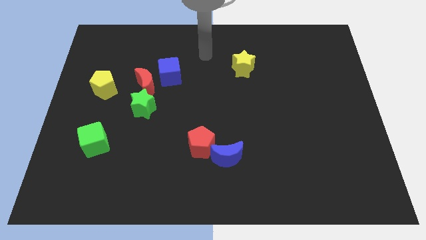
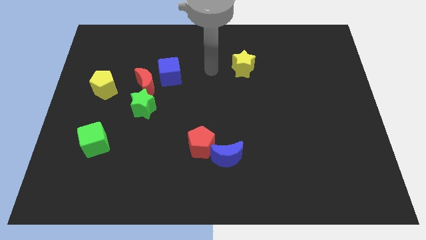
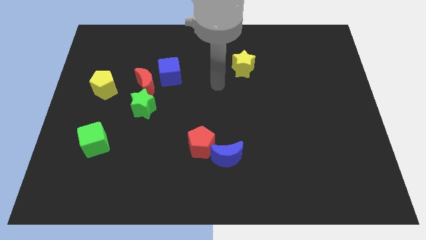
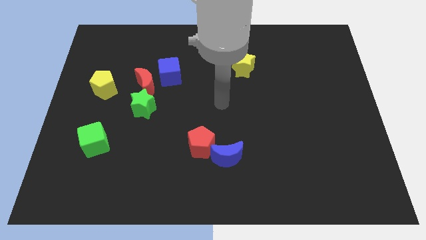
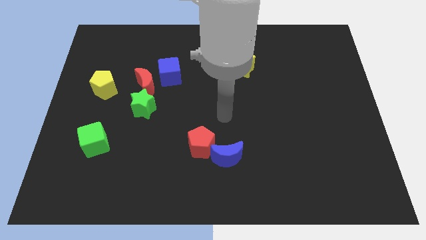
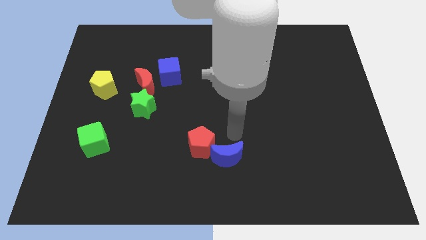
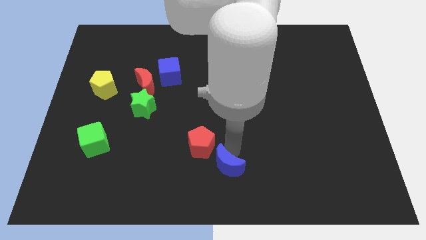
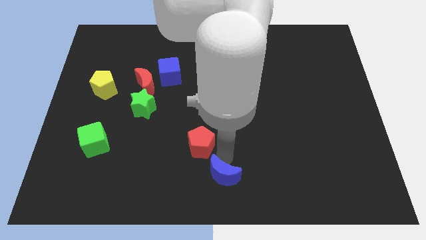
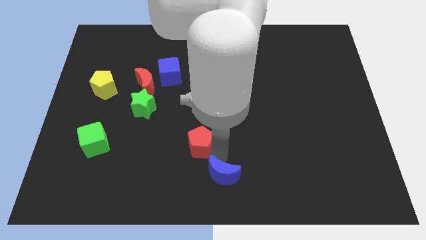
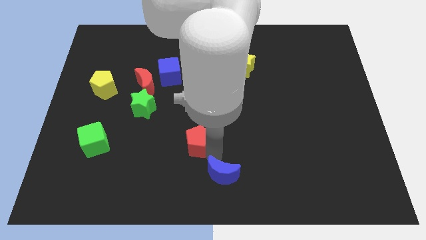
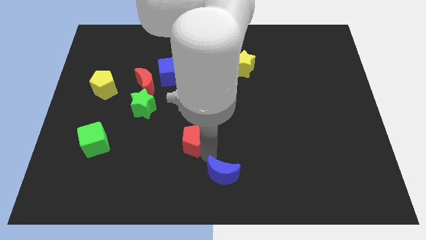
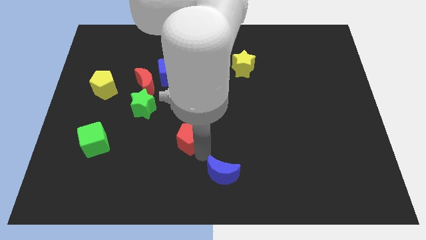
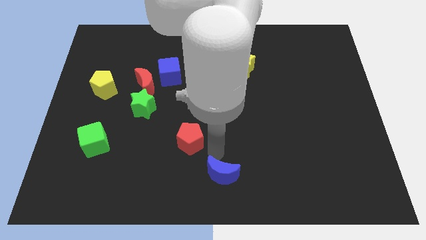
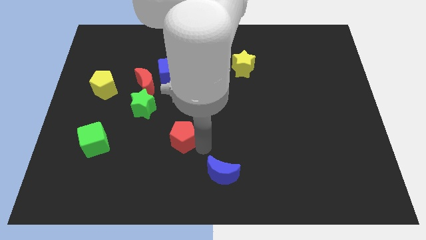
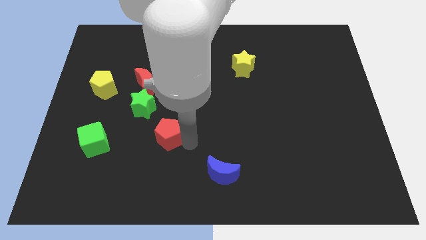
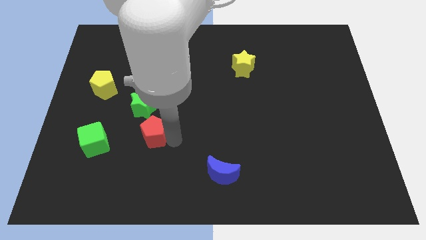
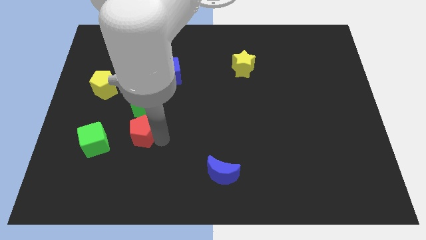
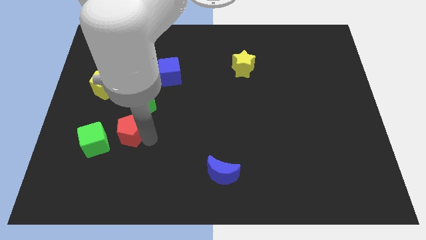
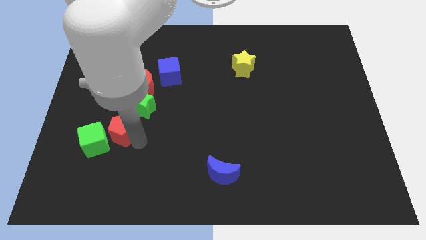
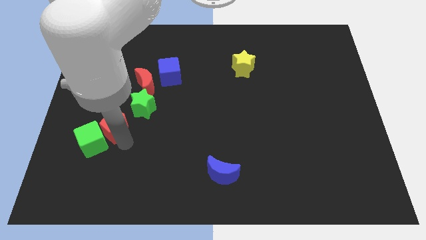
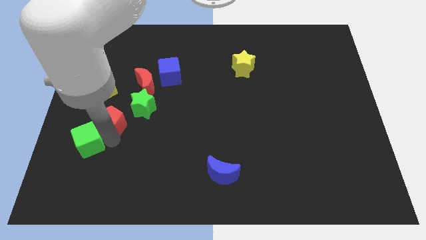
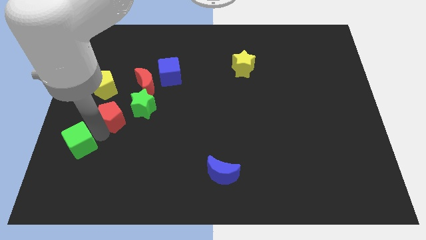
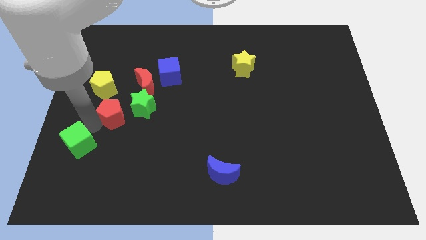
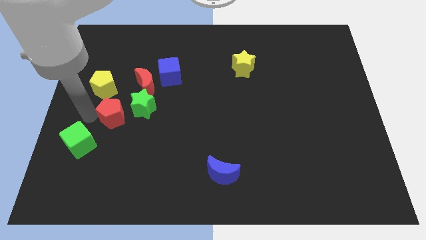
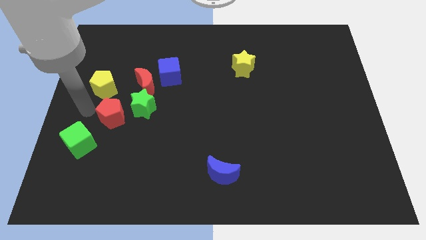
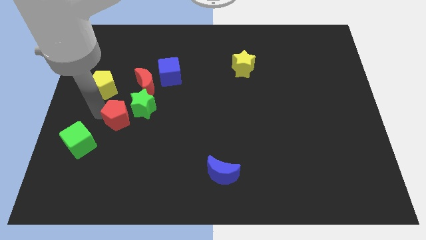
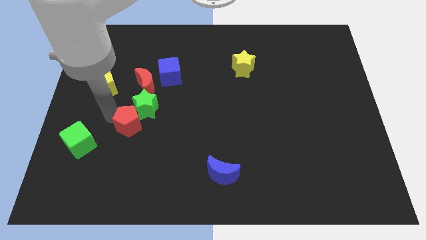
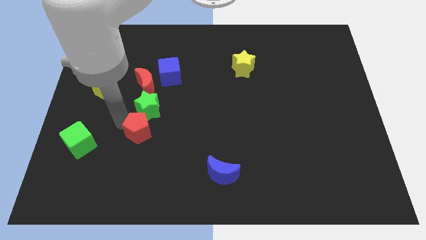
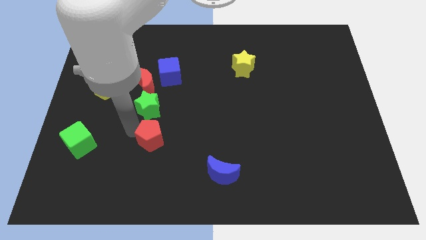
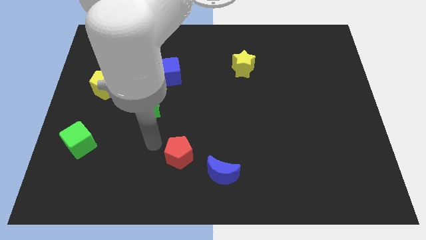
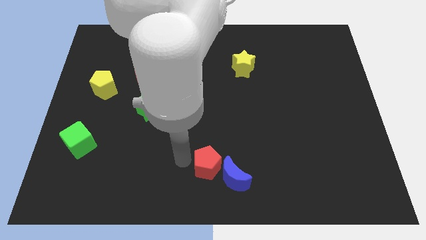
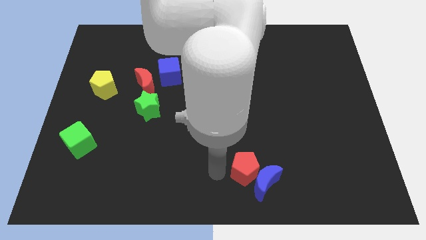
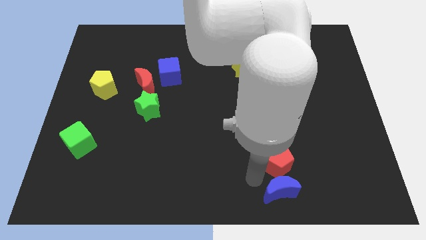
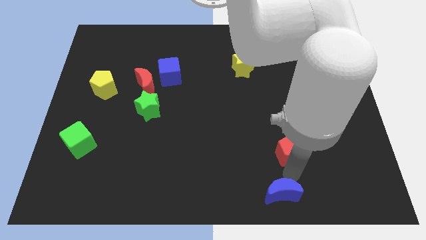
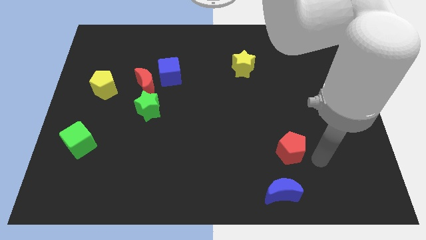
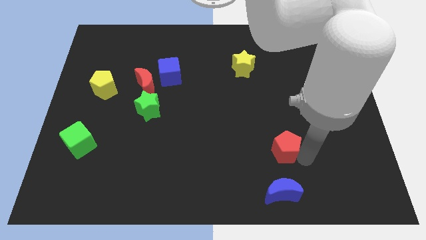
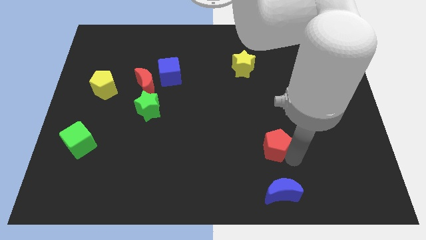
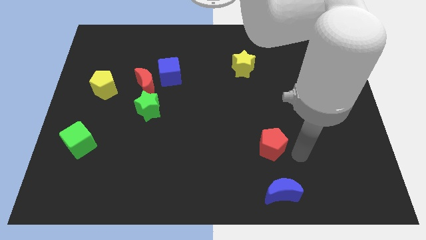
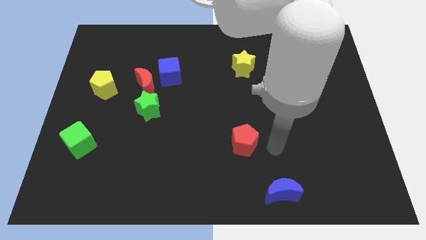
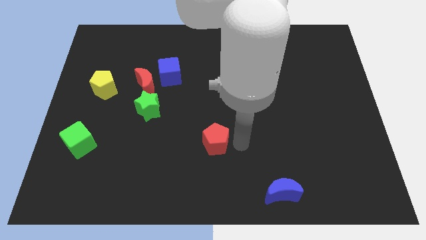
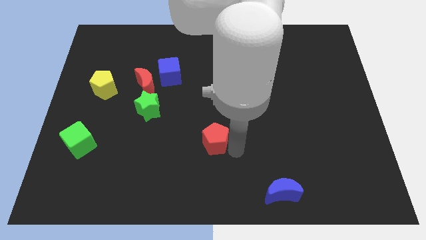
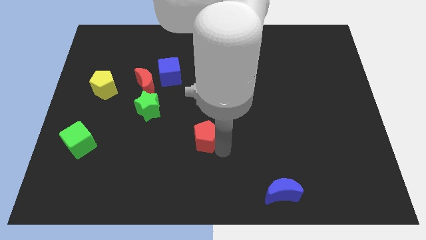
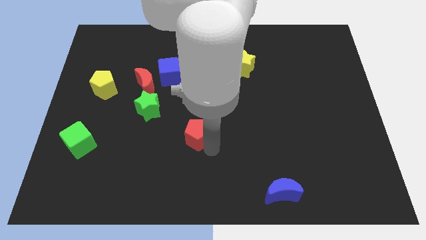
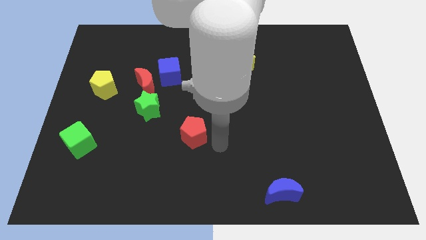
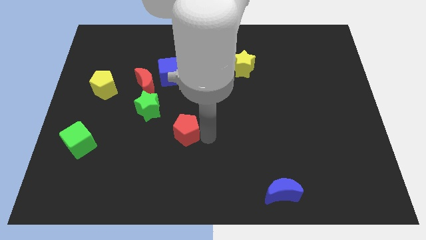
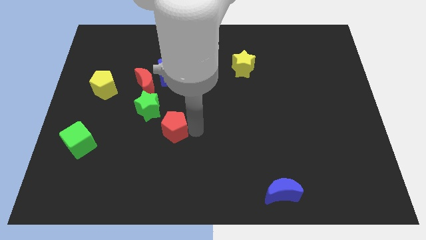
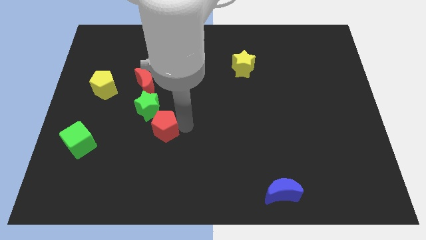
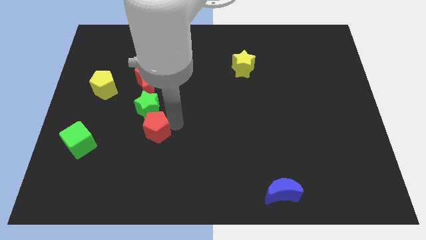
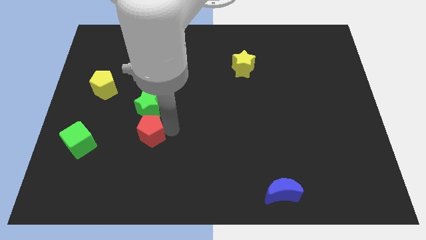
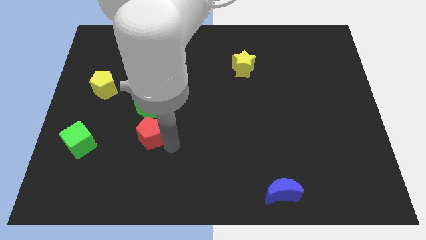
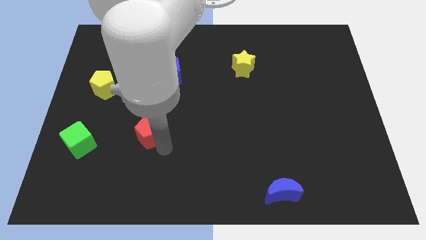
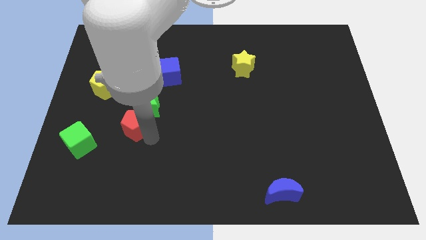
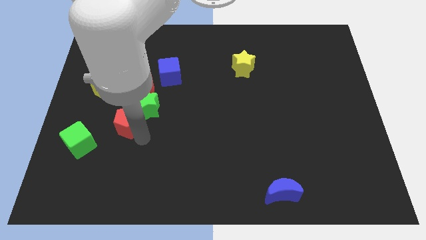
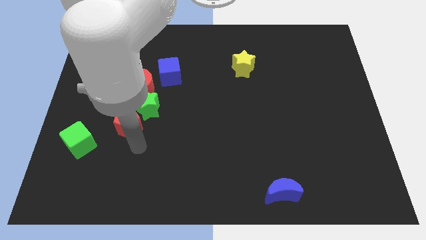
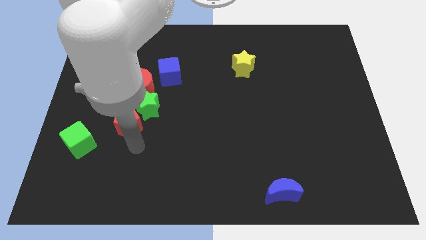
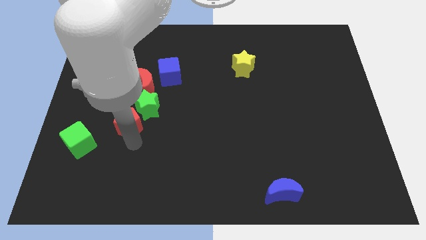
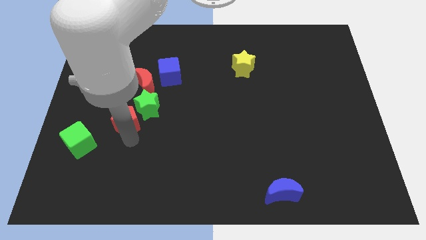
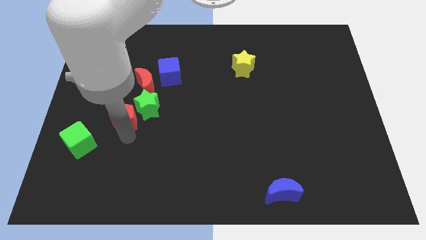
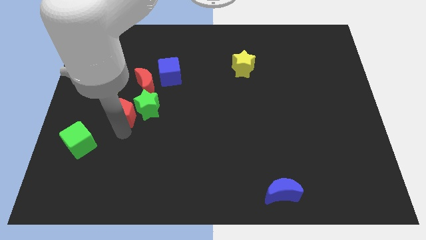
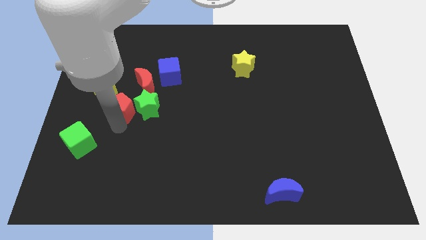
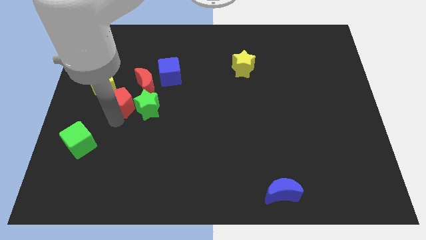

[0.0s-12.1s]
push the red pentagon up and left diagonally

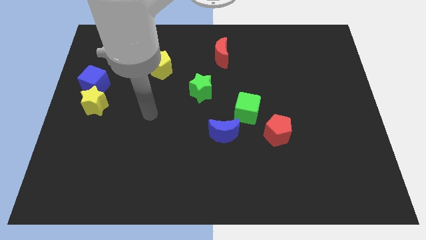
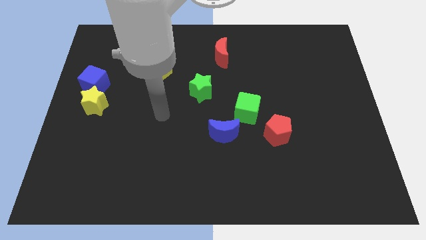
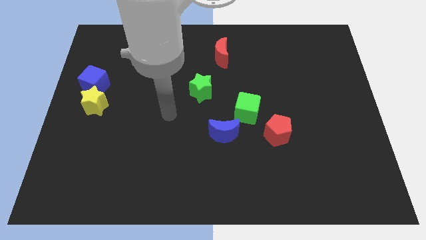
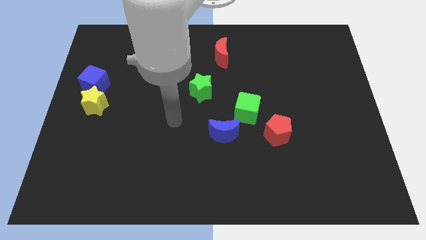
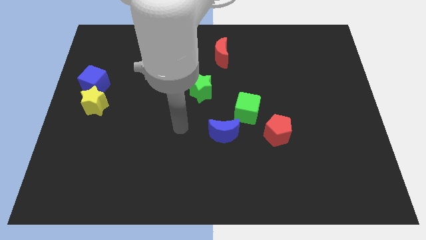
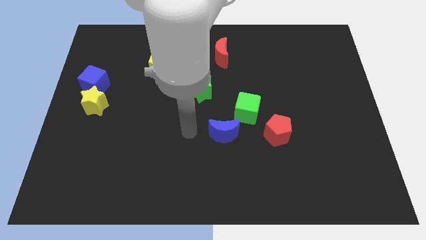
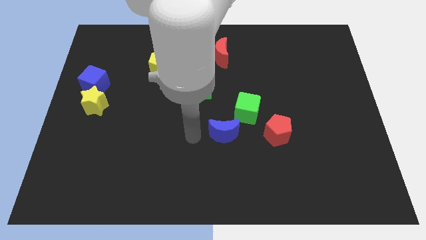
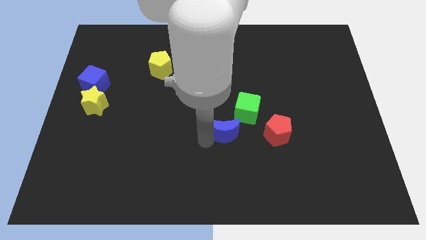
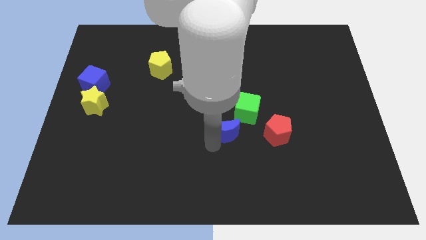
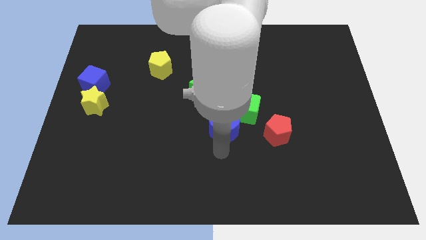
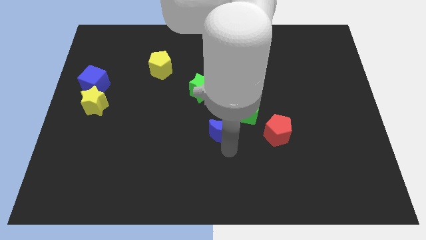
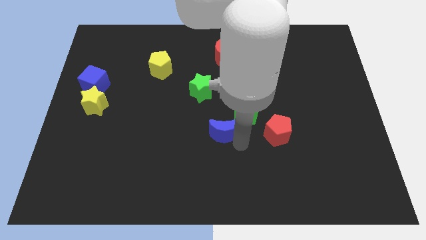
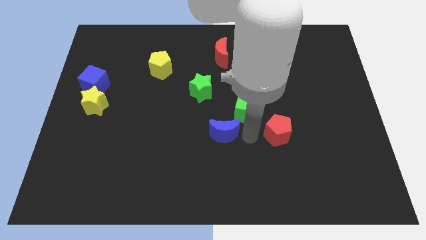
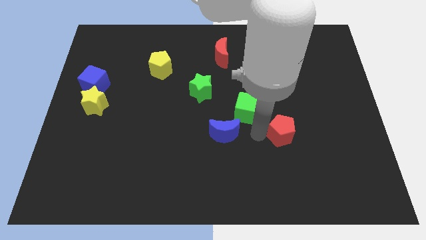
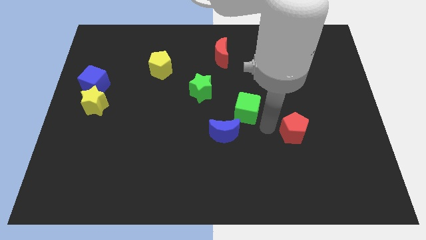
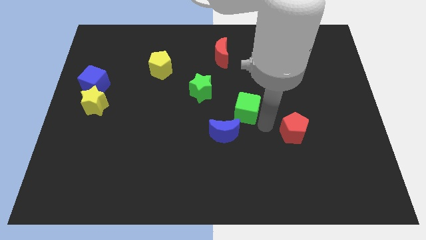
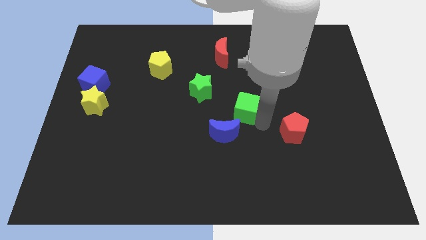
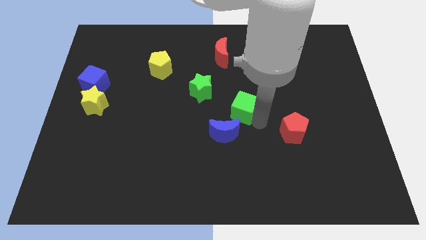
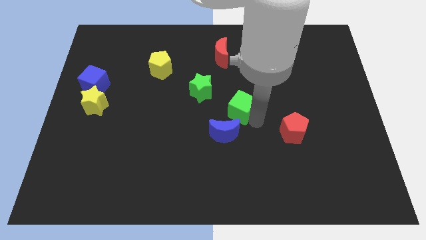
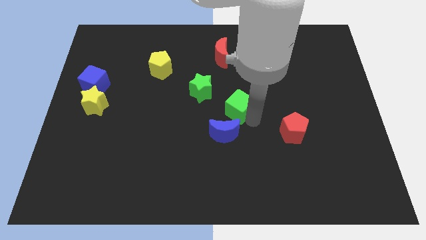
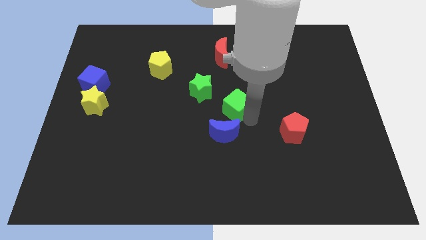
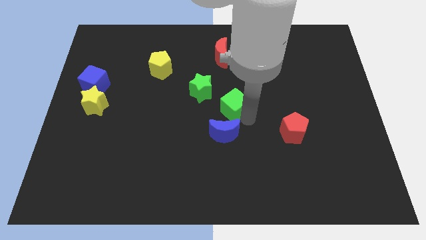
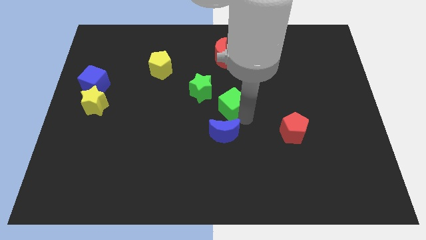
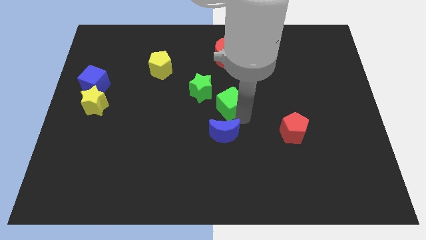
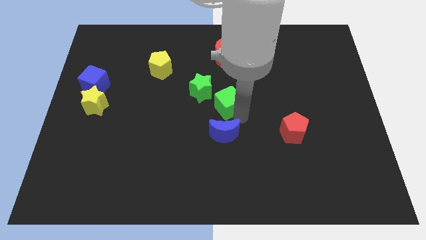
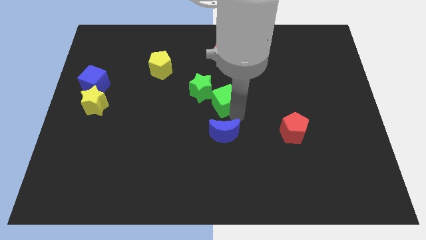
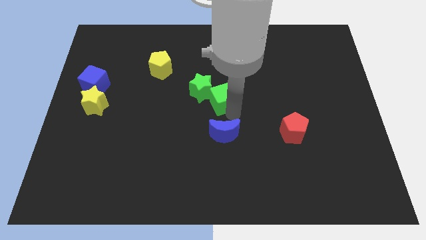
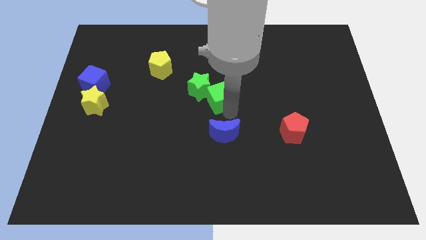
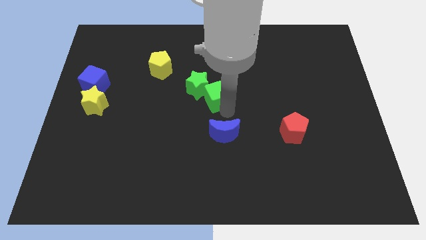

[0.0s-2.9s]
slightly slide the green cube upwards and then left
